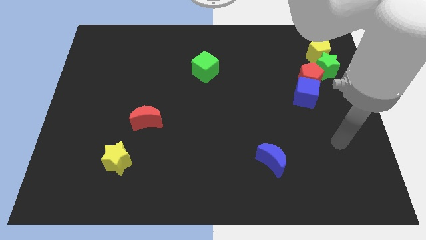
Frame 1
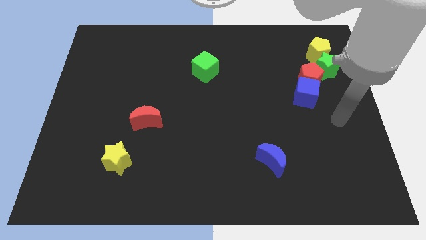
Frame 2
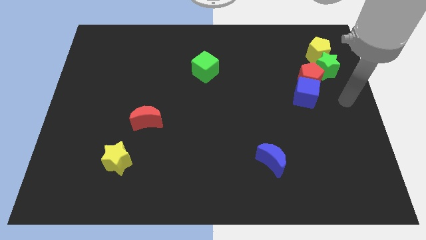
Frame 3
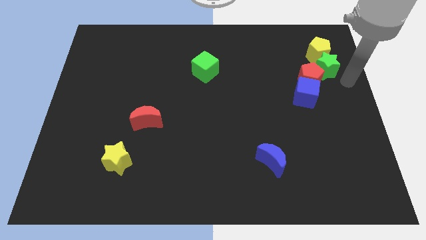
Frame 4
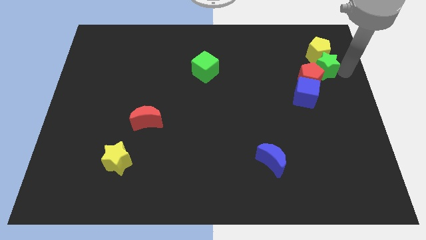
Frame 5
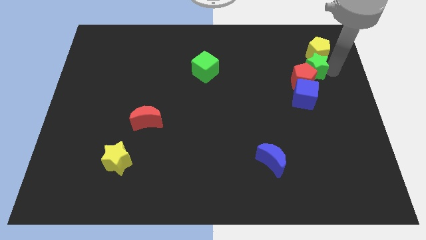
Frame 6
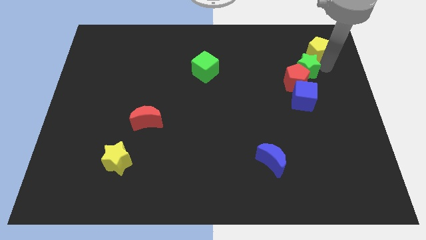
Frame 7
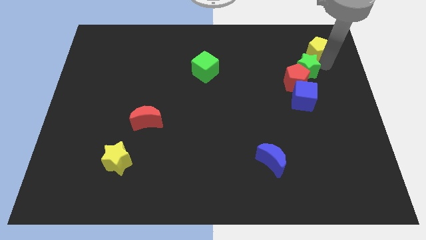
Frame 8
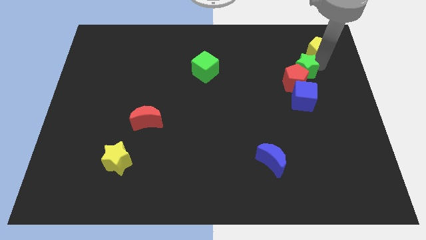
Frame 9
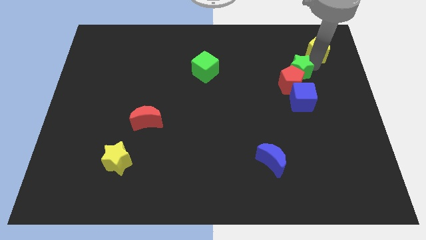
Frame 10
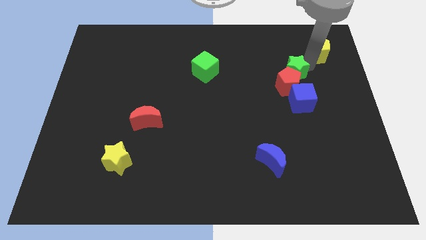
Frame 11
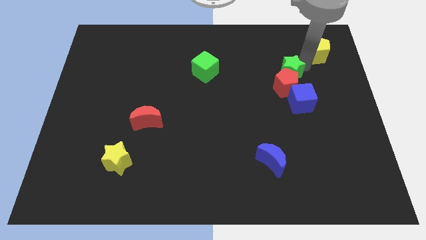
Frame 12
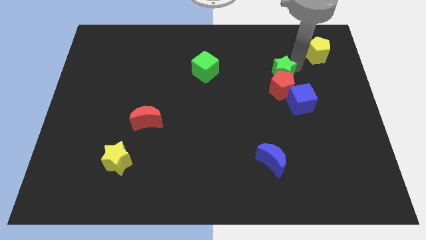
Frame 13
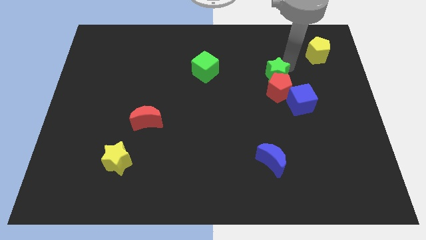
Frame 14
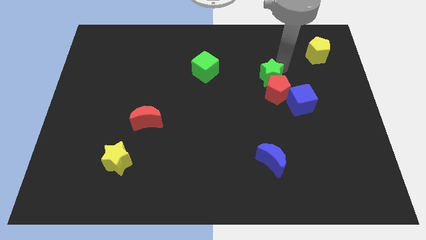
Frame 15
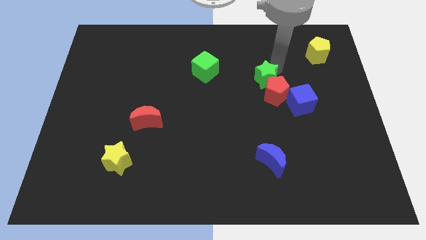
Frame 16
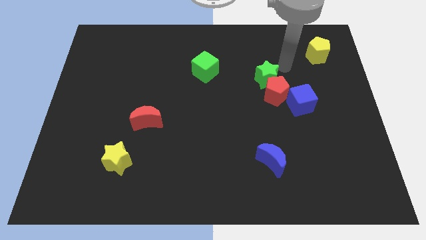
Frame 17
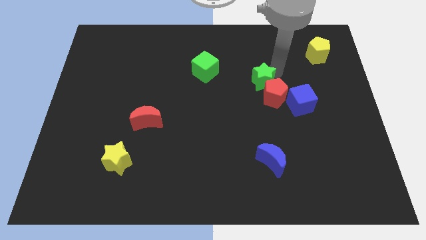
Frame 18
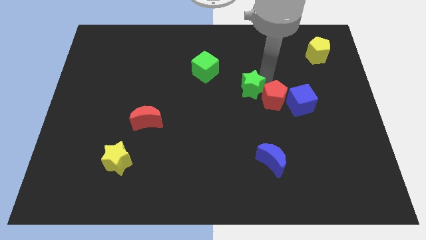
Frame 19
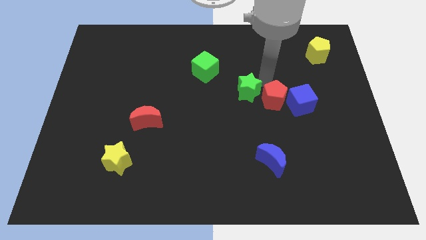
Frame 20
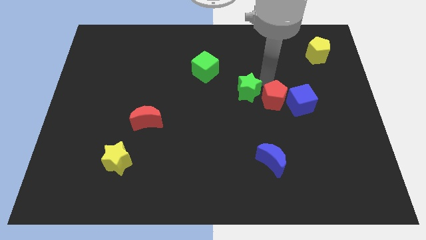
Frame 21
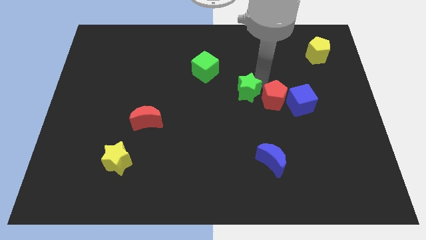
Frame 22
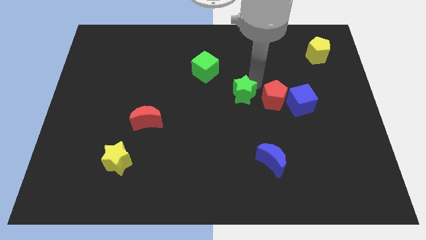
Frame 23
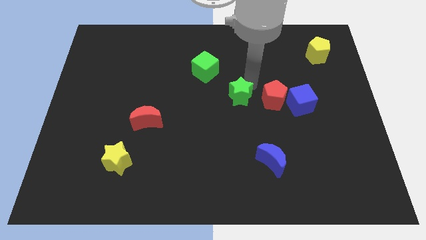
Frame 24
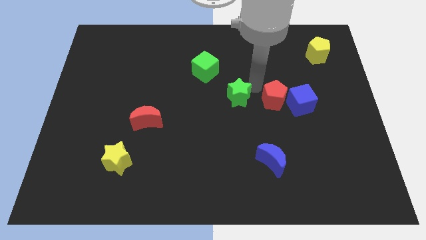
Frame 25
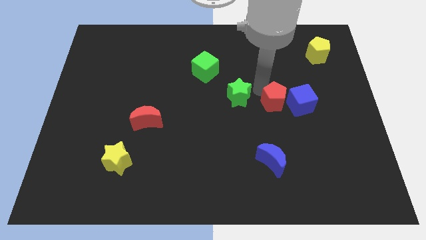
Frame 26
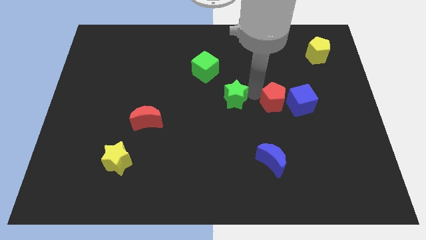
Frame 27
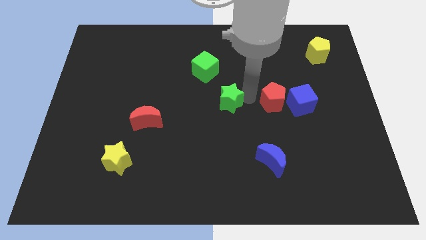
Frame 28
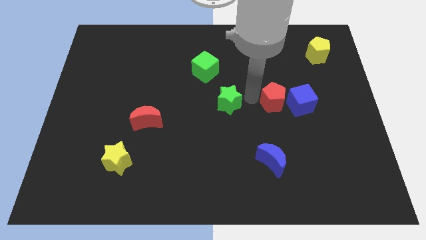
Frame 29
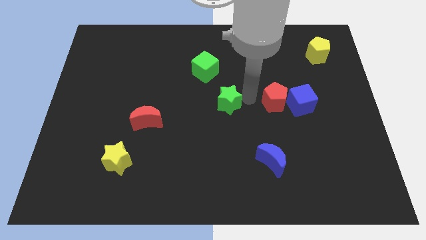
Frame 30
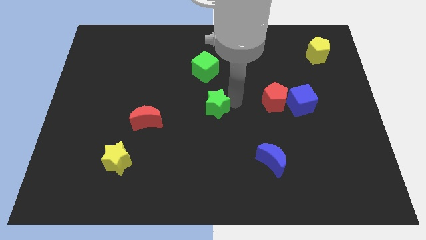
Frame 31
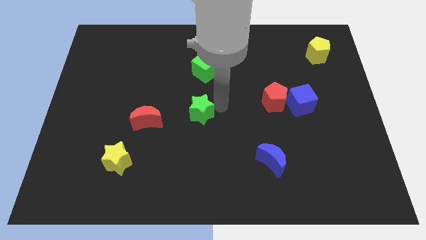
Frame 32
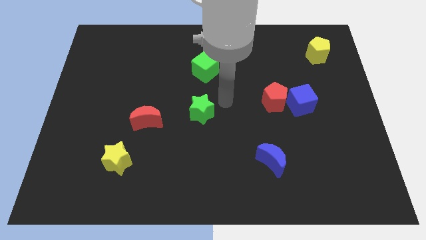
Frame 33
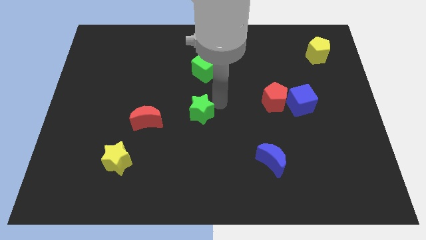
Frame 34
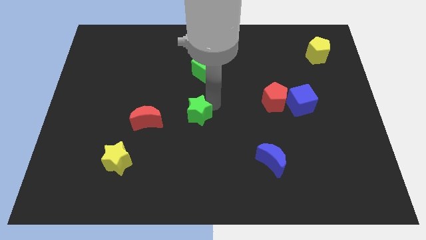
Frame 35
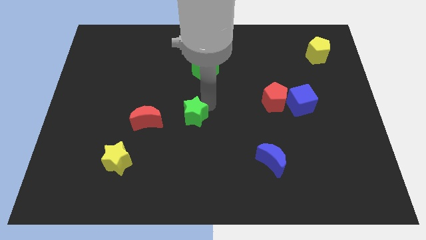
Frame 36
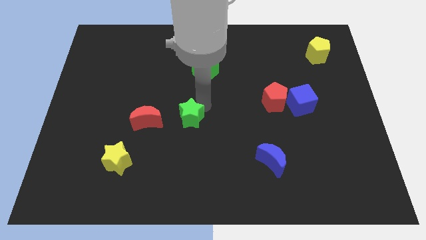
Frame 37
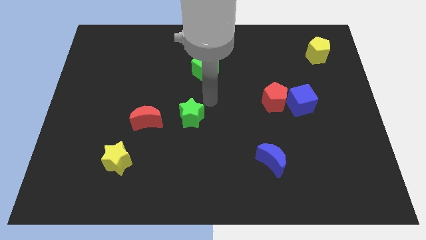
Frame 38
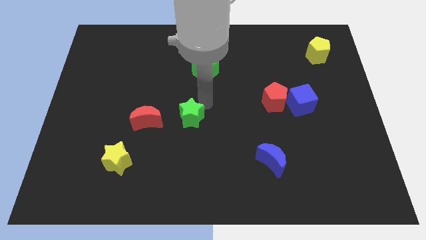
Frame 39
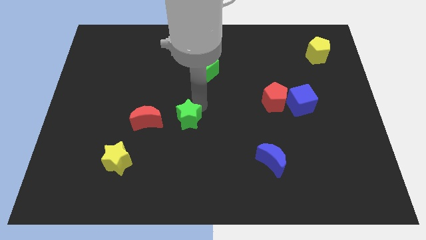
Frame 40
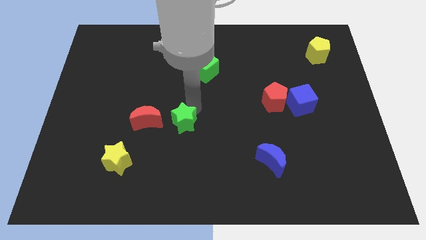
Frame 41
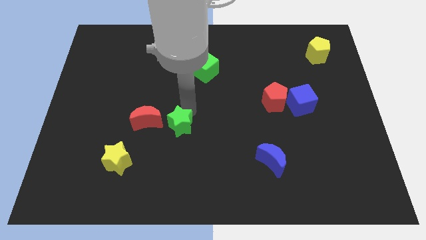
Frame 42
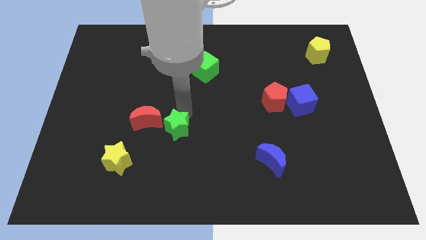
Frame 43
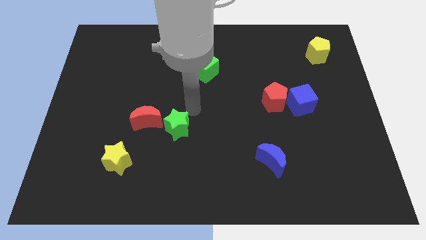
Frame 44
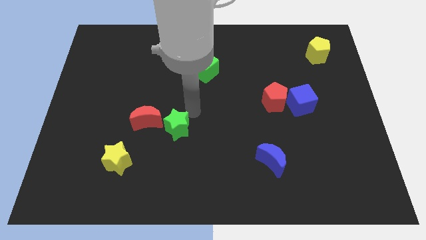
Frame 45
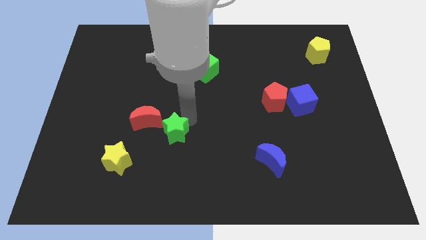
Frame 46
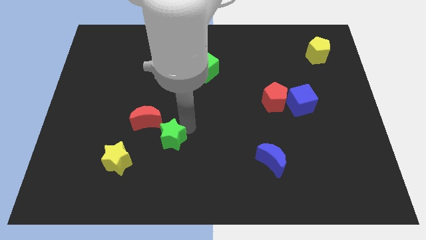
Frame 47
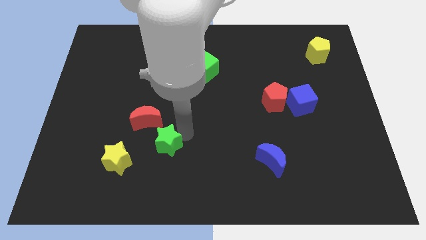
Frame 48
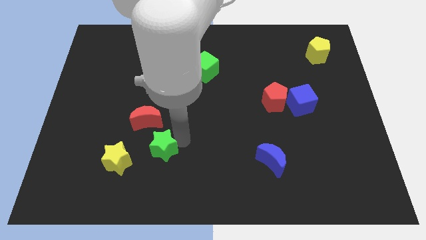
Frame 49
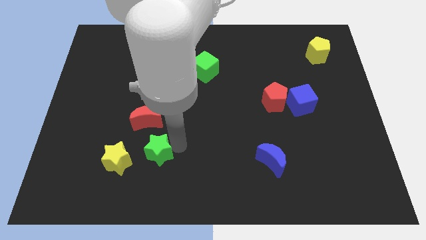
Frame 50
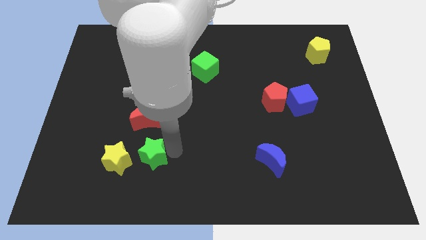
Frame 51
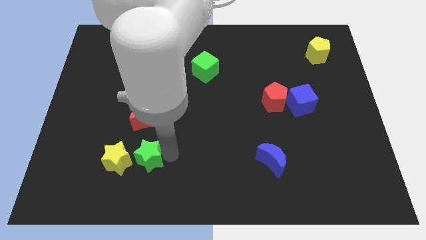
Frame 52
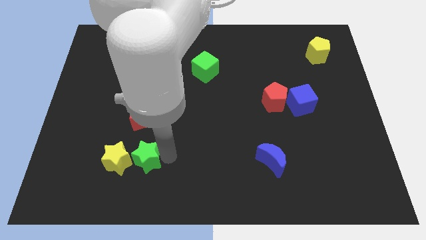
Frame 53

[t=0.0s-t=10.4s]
push the green star towards the yellow star

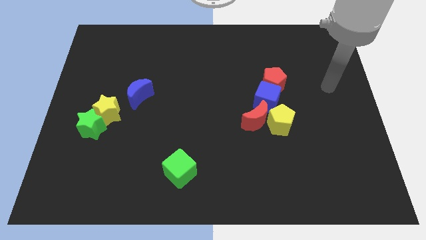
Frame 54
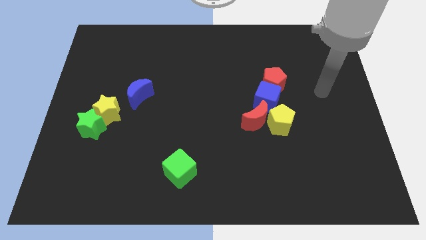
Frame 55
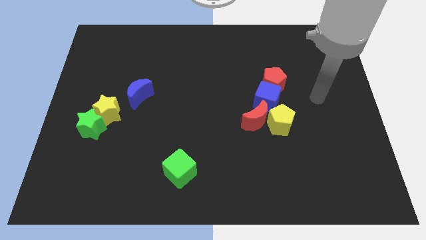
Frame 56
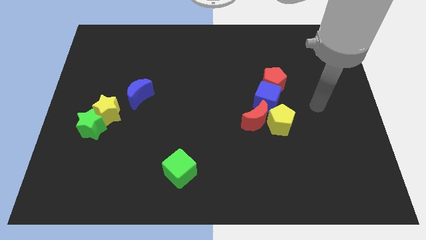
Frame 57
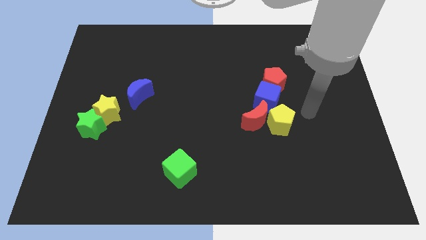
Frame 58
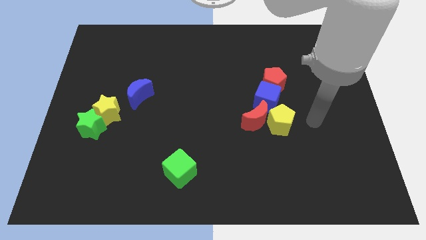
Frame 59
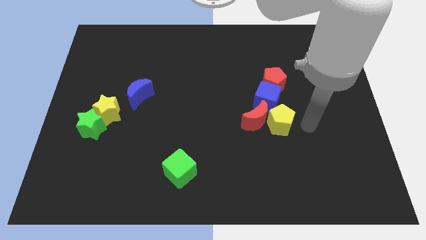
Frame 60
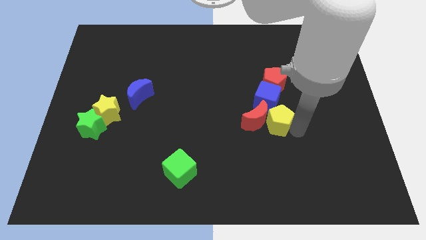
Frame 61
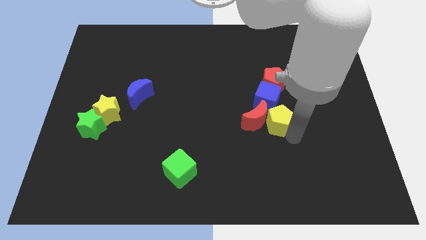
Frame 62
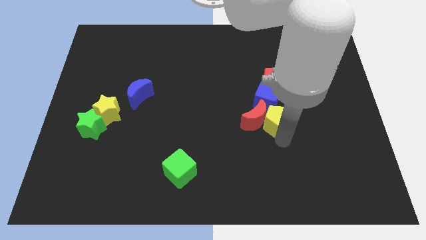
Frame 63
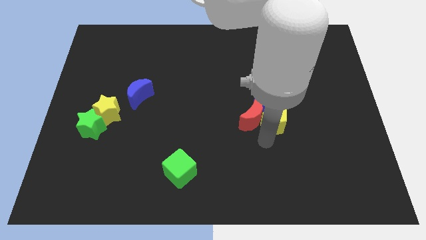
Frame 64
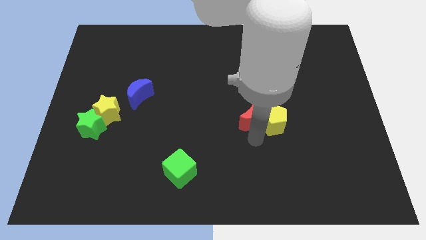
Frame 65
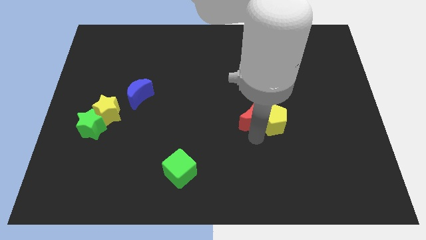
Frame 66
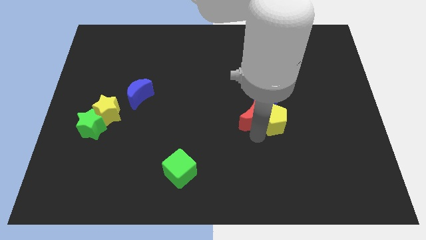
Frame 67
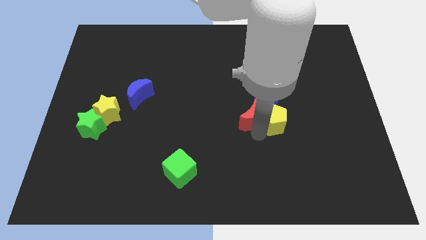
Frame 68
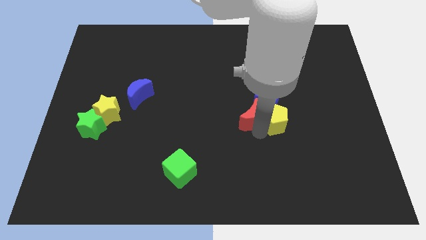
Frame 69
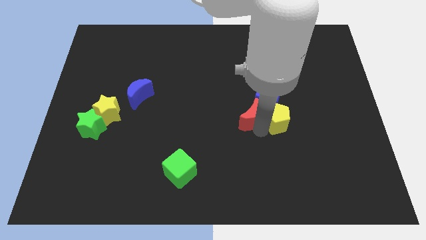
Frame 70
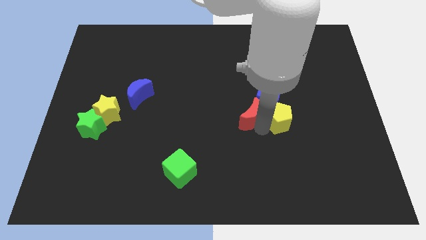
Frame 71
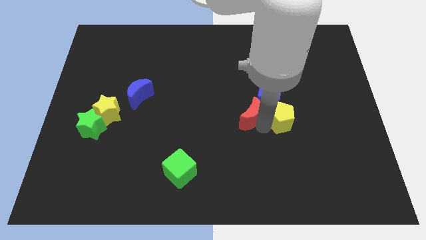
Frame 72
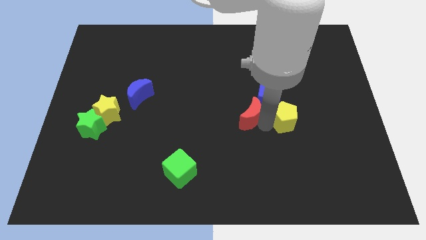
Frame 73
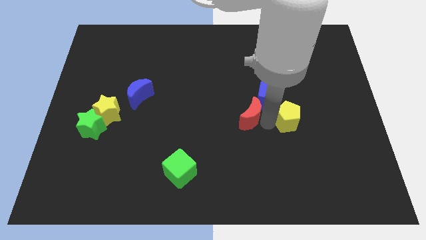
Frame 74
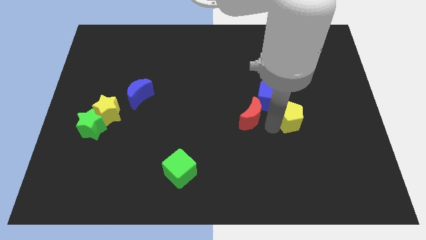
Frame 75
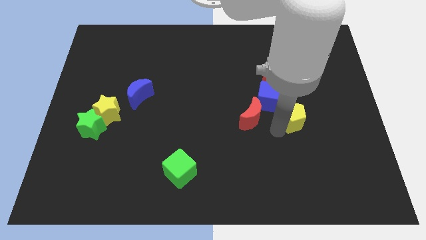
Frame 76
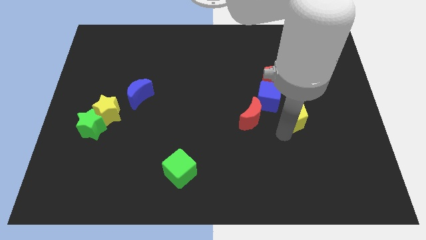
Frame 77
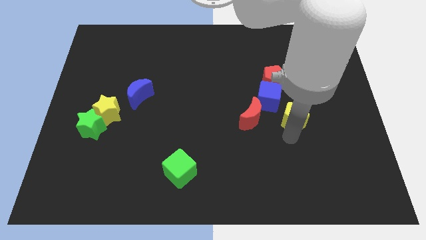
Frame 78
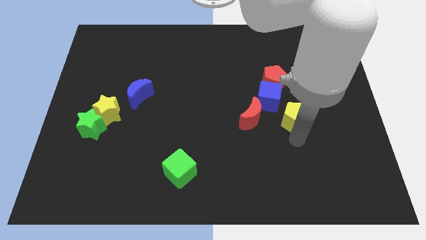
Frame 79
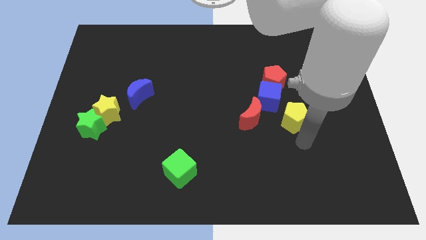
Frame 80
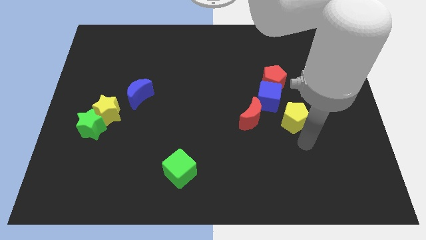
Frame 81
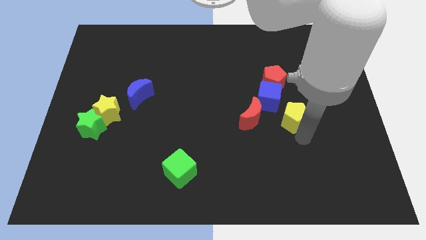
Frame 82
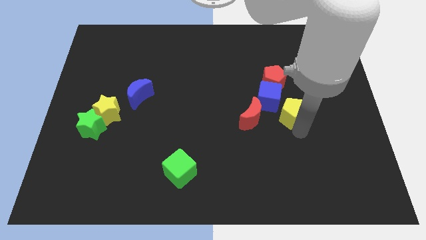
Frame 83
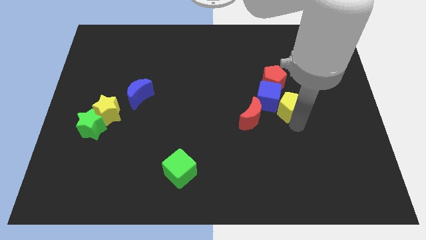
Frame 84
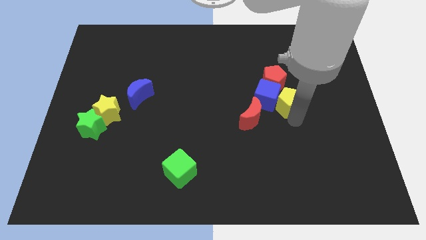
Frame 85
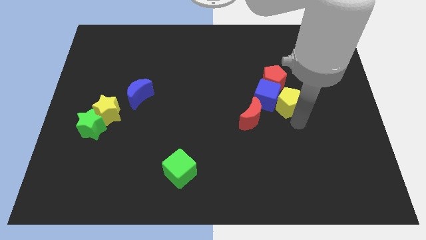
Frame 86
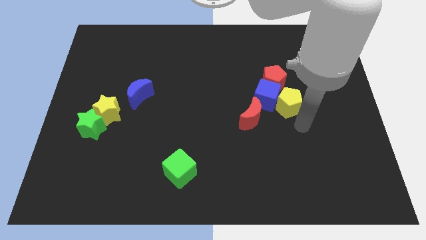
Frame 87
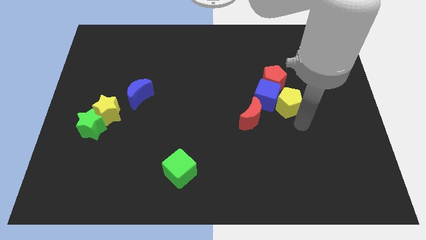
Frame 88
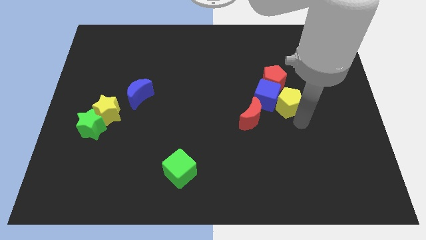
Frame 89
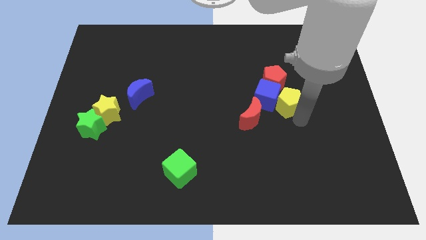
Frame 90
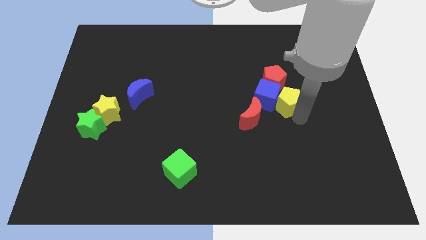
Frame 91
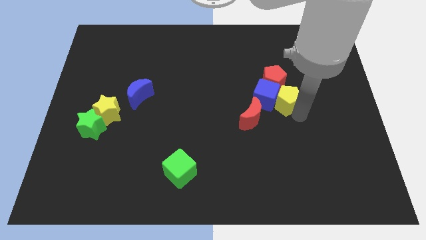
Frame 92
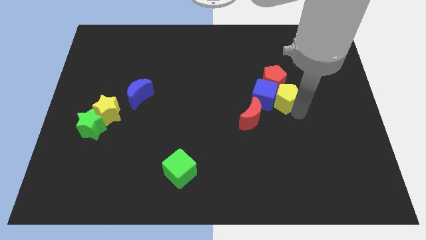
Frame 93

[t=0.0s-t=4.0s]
slide the yellow pentagon towards the red pentagon
